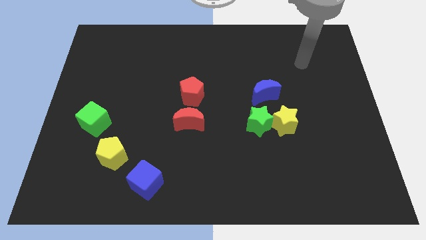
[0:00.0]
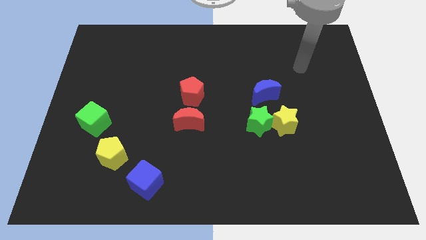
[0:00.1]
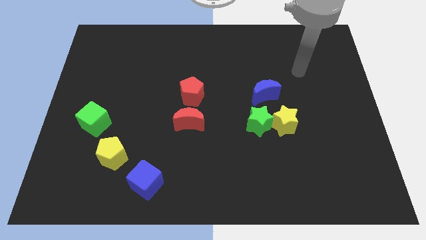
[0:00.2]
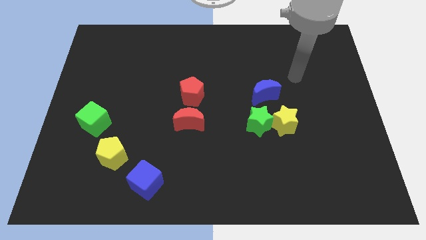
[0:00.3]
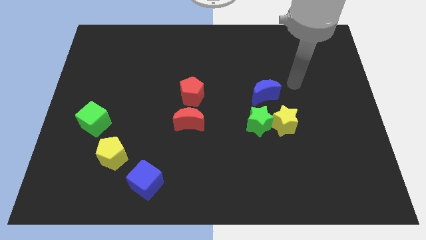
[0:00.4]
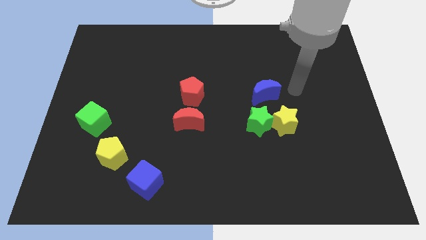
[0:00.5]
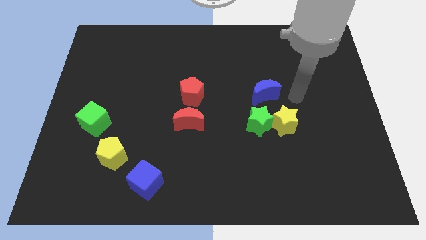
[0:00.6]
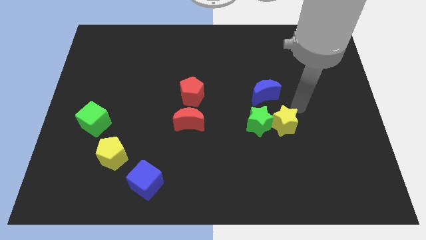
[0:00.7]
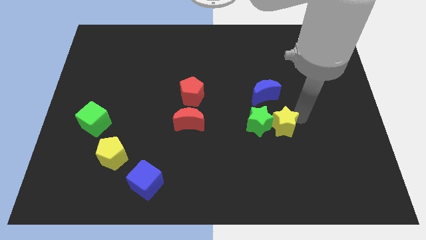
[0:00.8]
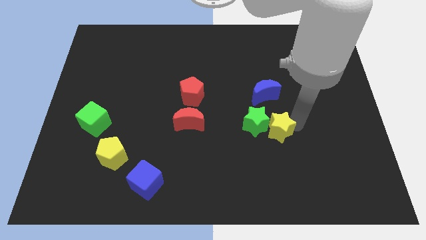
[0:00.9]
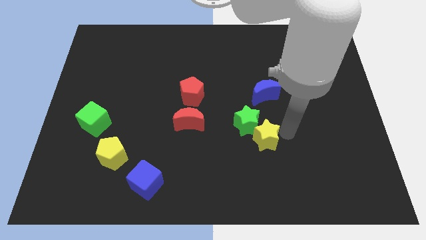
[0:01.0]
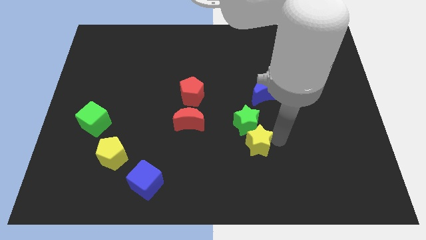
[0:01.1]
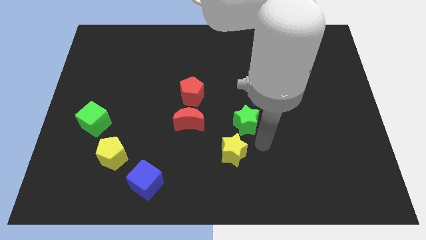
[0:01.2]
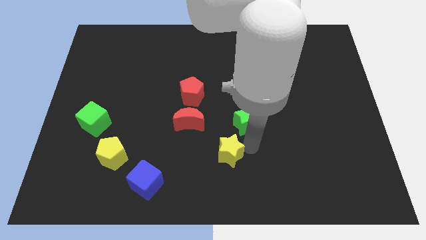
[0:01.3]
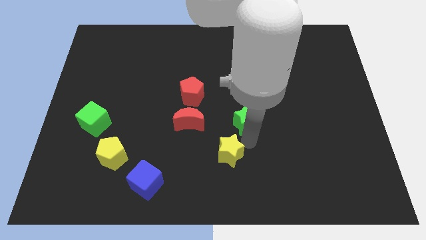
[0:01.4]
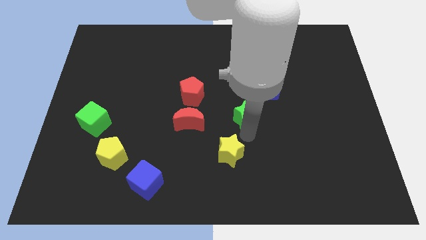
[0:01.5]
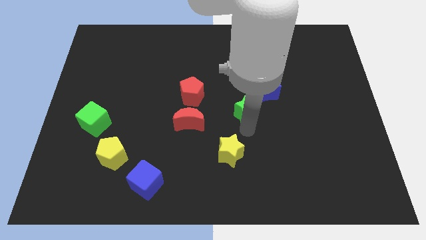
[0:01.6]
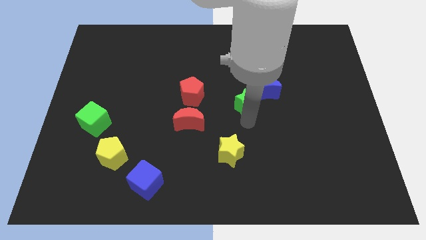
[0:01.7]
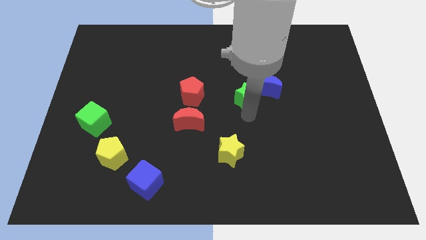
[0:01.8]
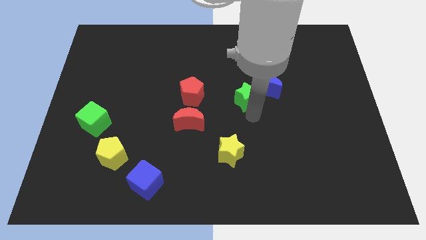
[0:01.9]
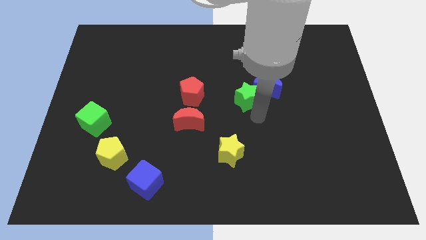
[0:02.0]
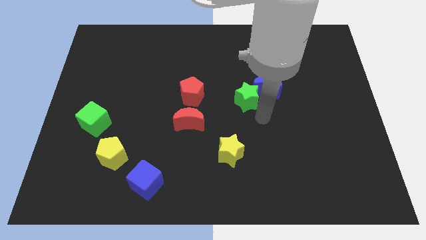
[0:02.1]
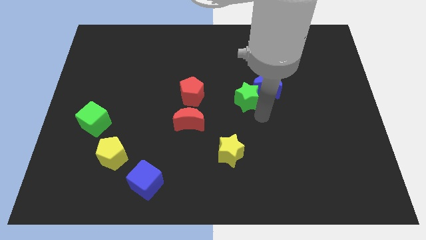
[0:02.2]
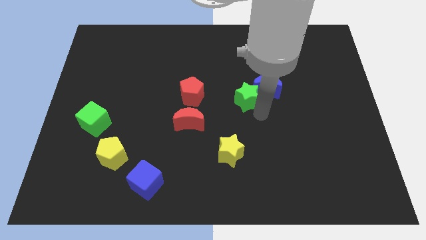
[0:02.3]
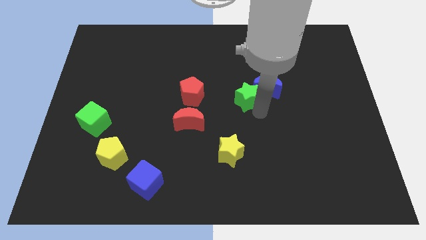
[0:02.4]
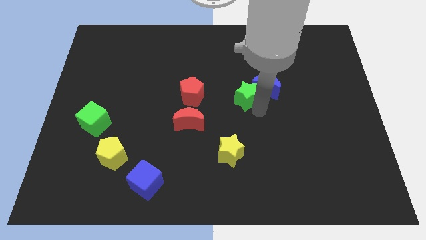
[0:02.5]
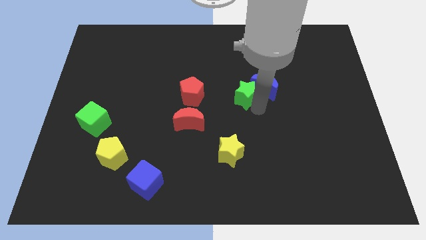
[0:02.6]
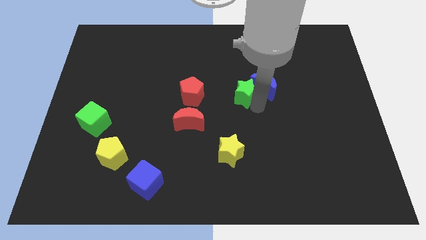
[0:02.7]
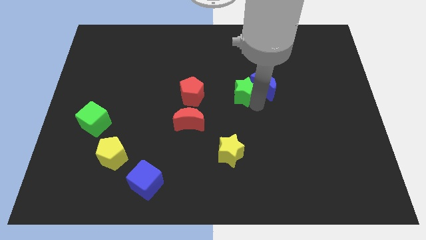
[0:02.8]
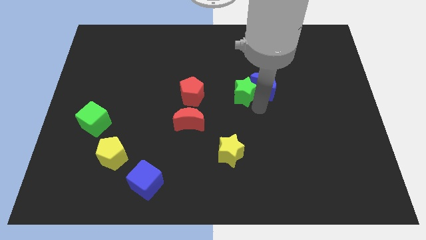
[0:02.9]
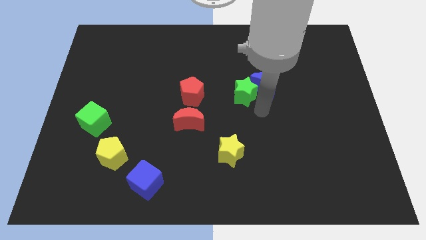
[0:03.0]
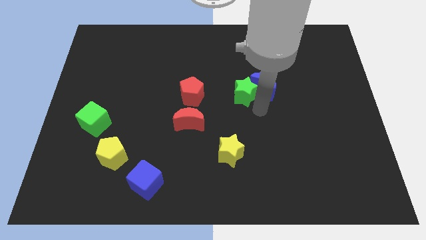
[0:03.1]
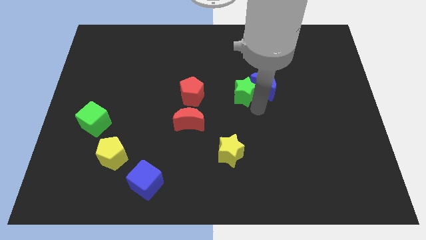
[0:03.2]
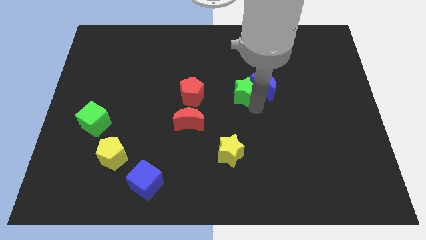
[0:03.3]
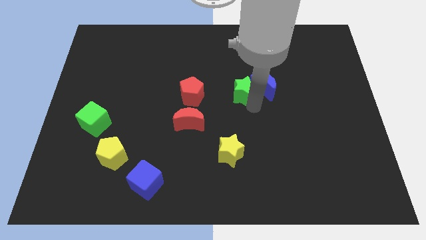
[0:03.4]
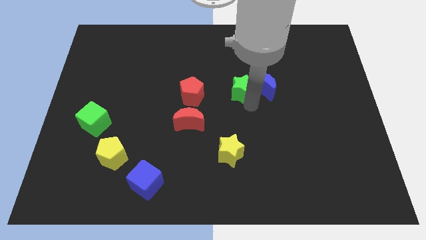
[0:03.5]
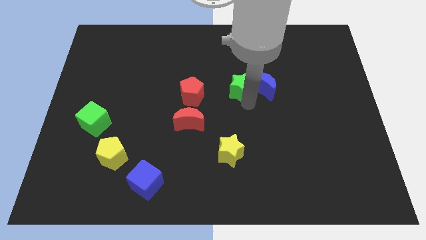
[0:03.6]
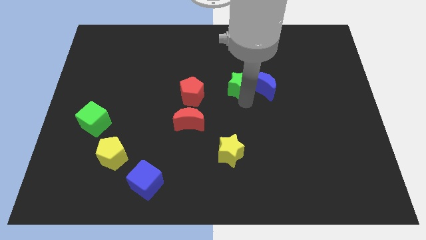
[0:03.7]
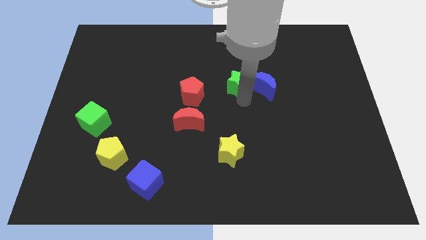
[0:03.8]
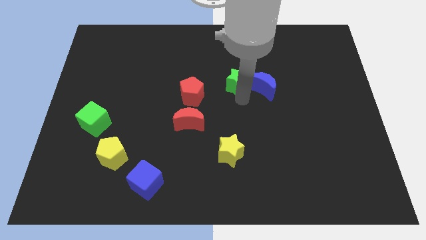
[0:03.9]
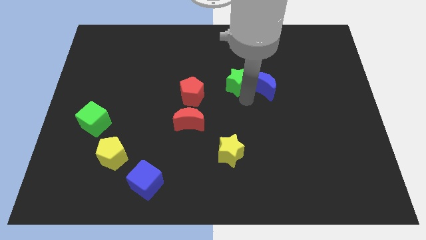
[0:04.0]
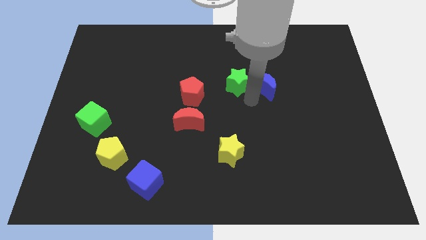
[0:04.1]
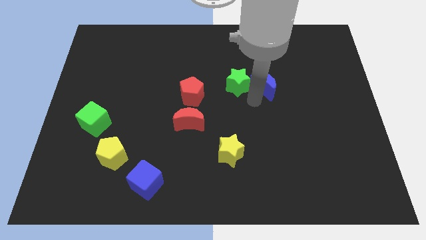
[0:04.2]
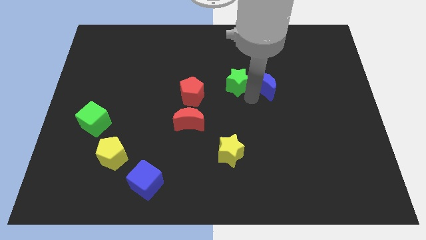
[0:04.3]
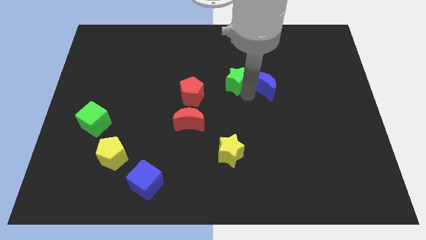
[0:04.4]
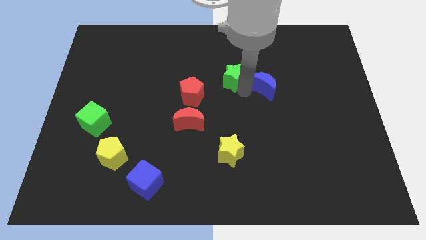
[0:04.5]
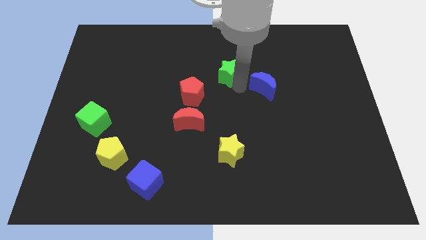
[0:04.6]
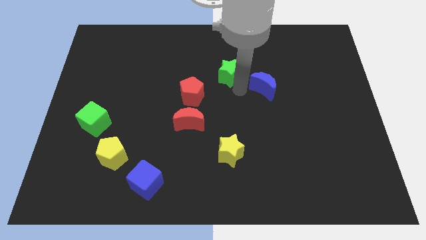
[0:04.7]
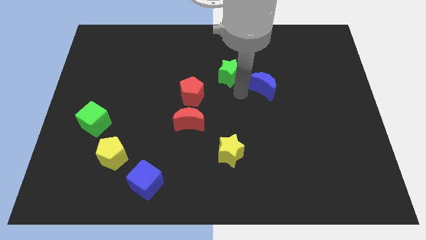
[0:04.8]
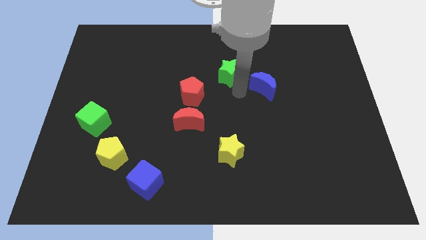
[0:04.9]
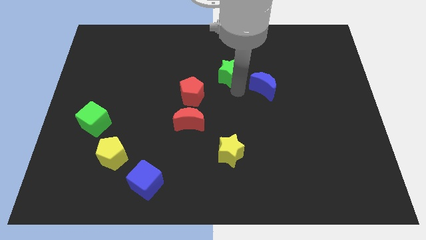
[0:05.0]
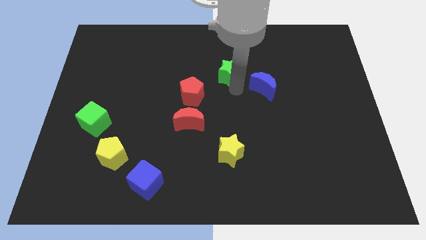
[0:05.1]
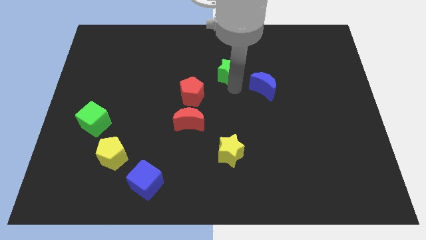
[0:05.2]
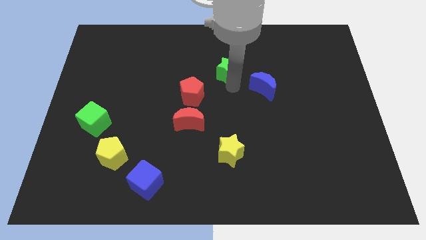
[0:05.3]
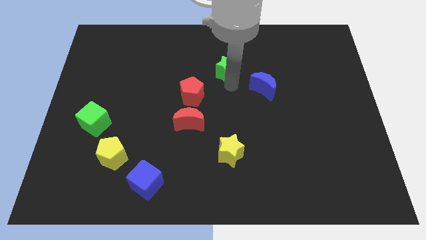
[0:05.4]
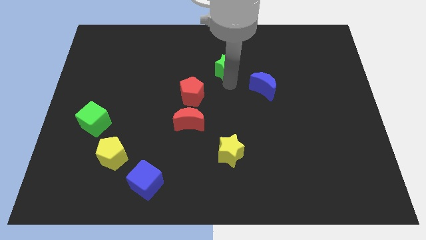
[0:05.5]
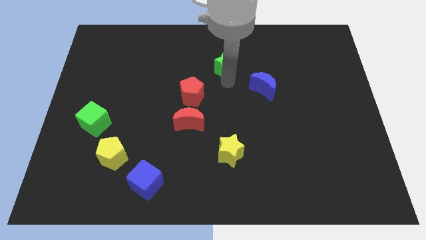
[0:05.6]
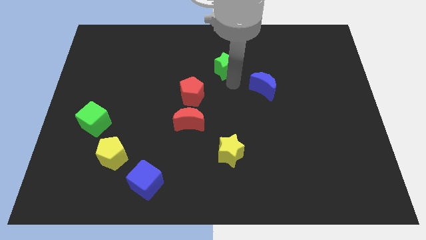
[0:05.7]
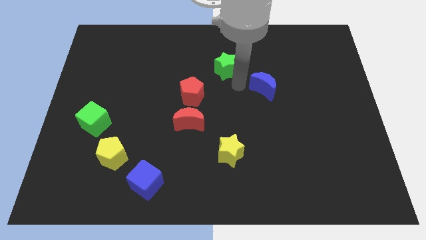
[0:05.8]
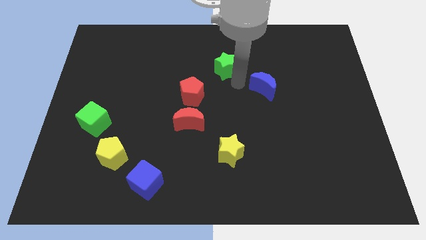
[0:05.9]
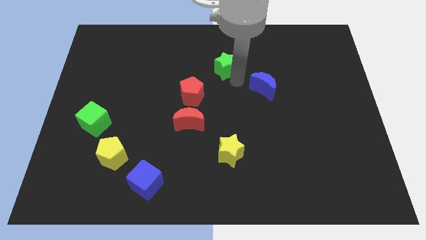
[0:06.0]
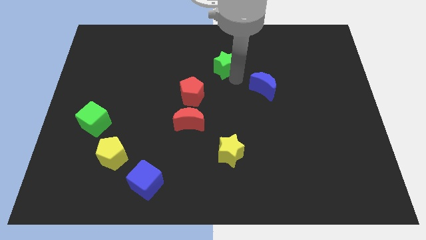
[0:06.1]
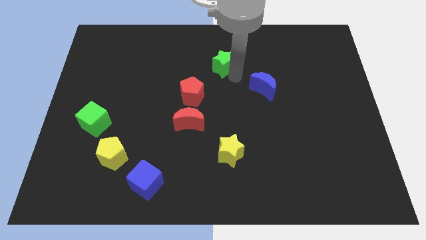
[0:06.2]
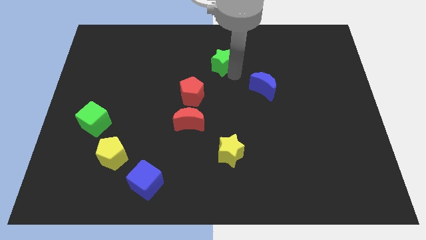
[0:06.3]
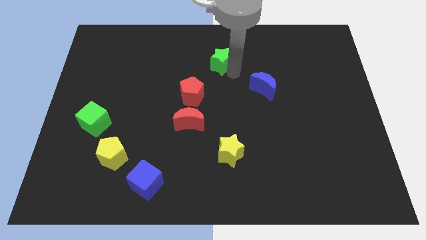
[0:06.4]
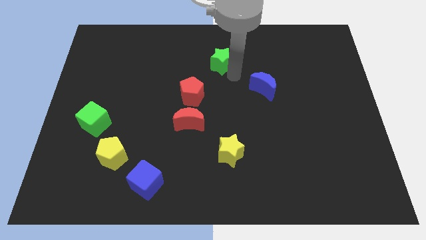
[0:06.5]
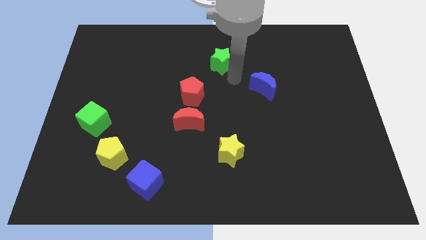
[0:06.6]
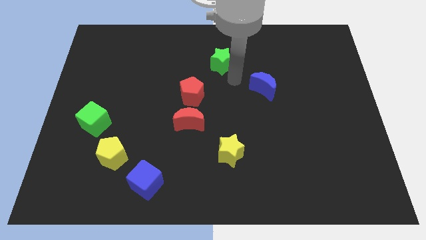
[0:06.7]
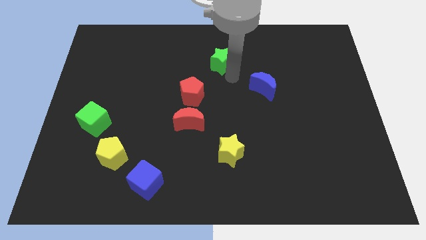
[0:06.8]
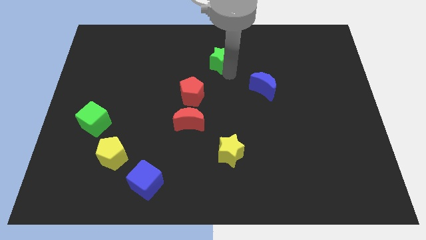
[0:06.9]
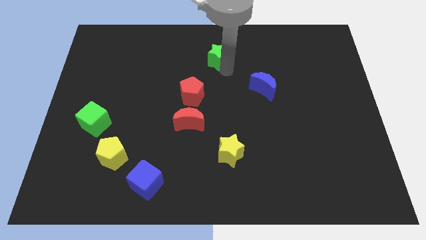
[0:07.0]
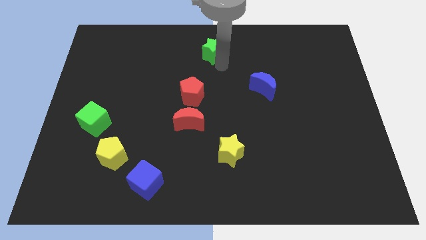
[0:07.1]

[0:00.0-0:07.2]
push the green star to the top
